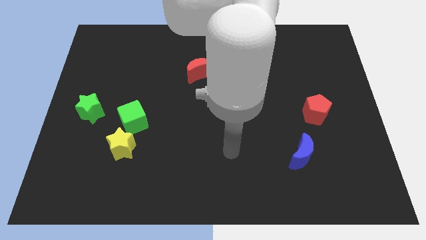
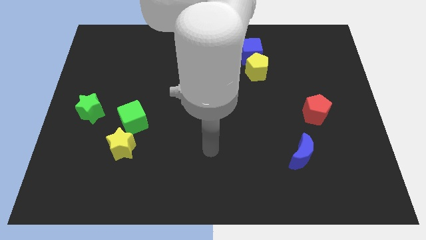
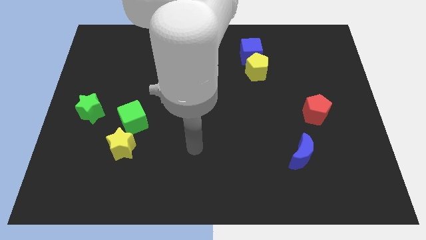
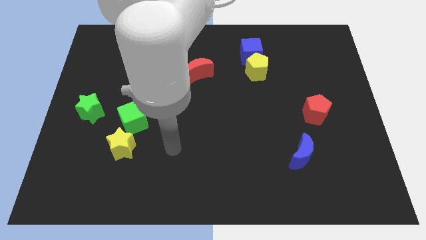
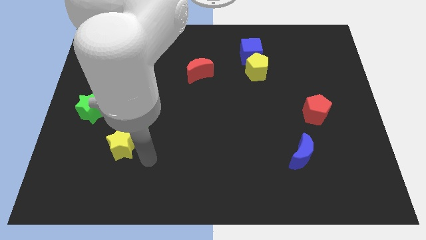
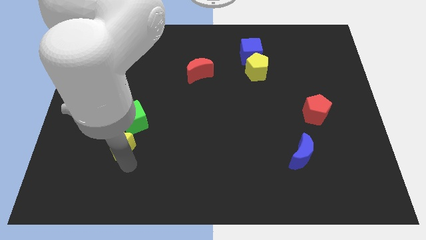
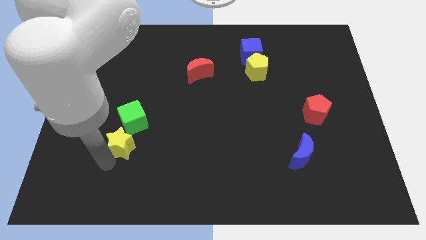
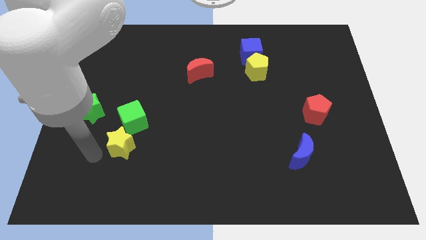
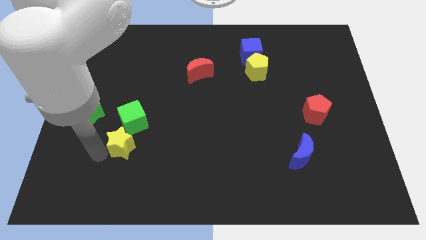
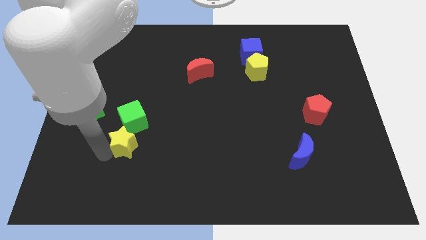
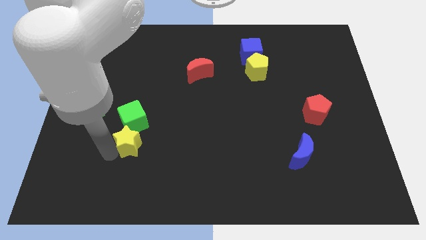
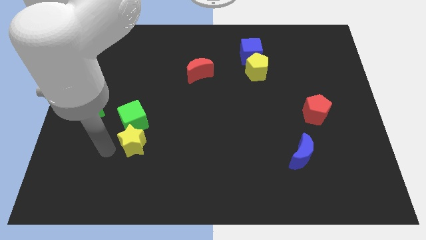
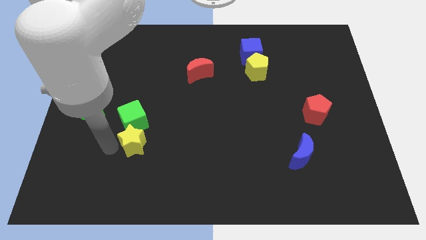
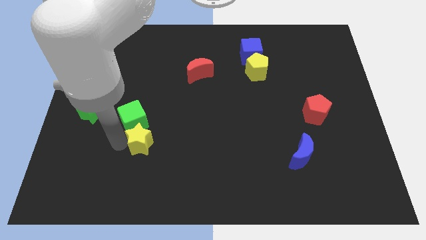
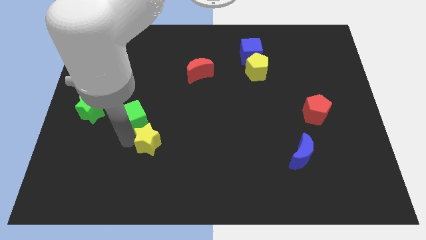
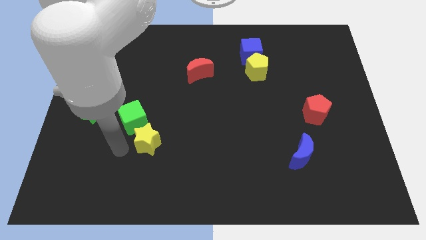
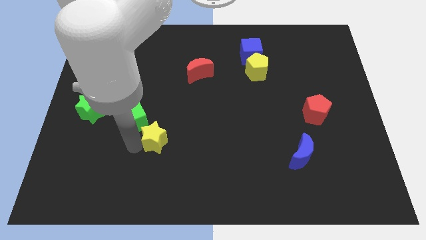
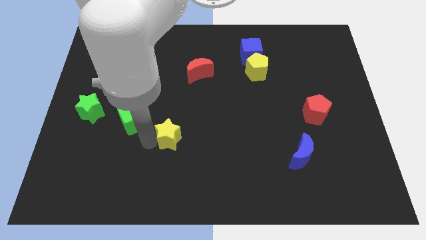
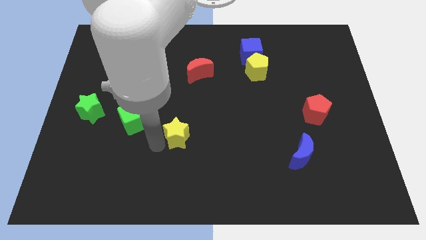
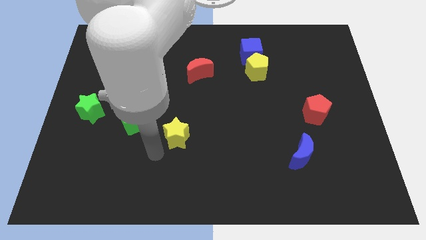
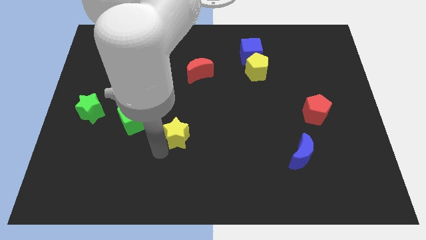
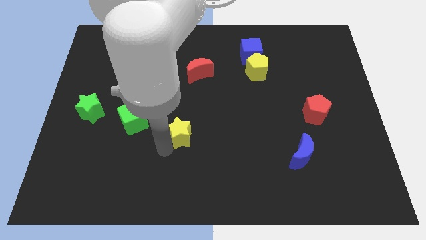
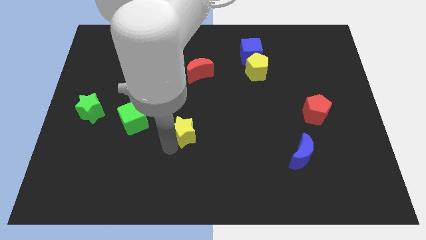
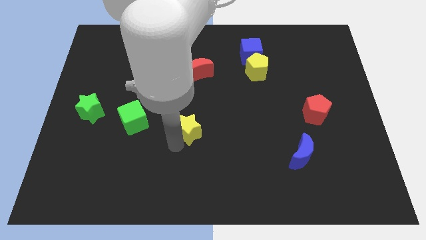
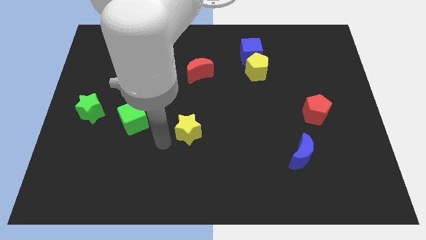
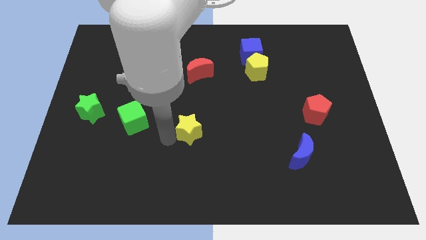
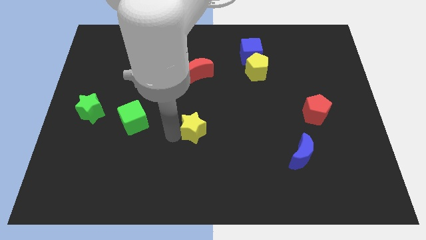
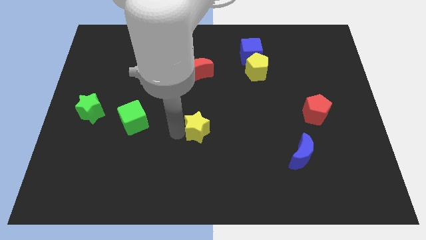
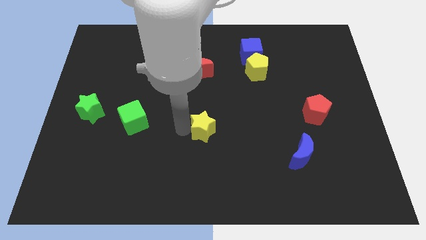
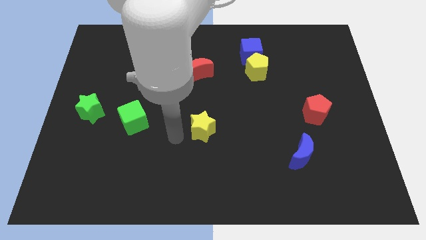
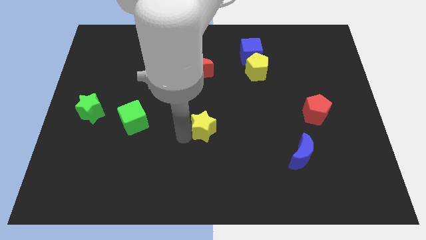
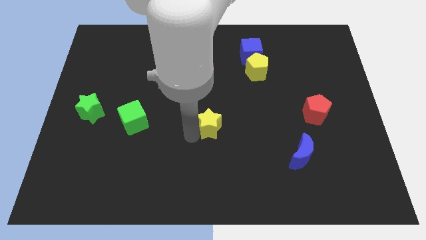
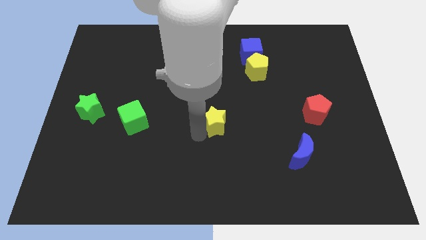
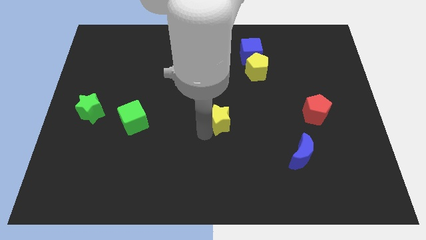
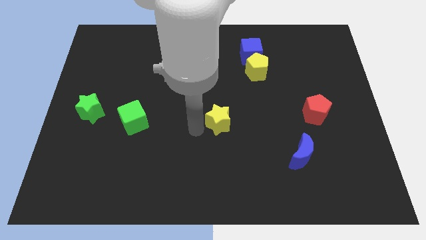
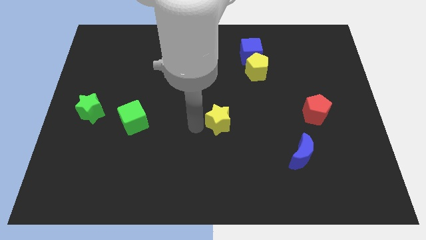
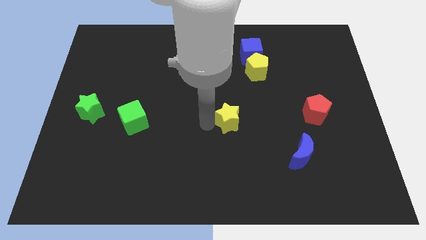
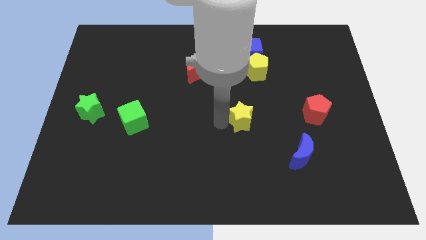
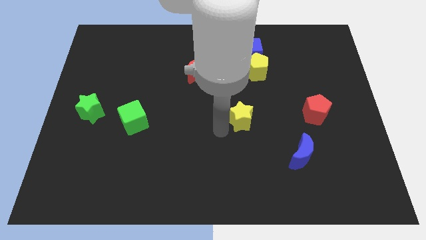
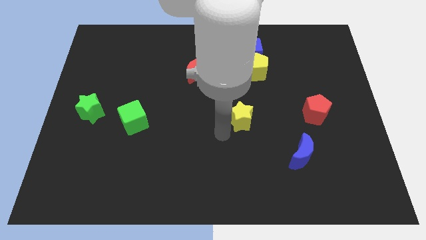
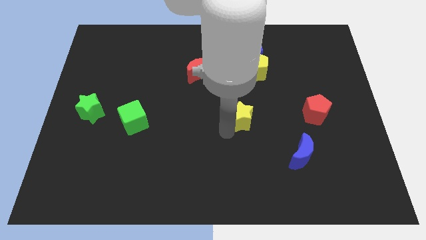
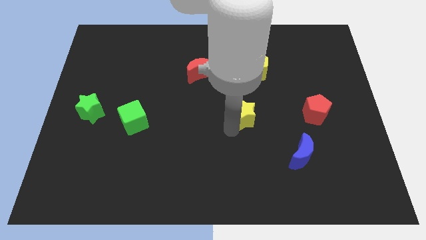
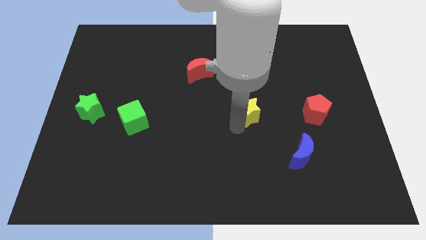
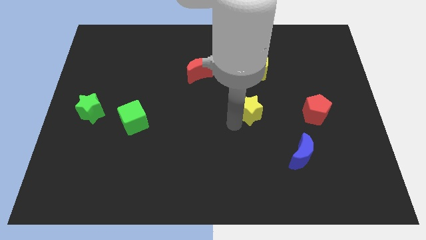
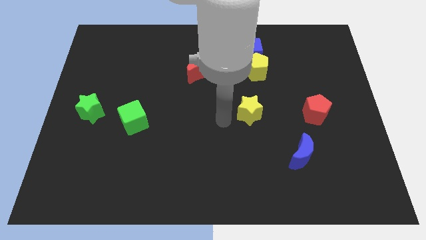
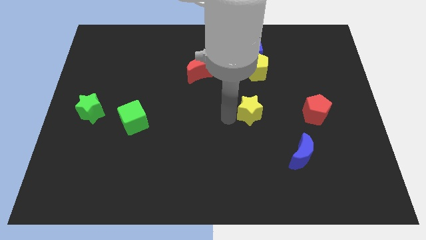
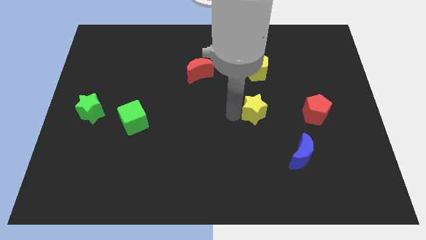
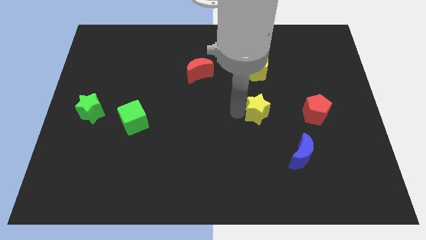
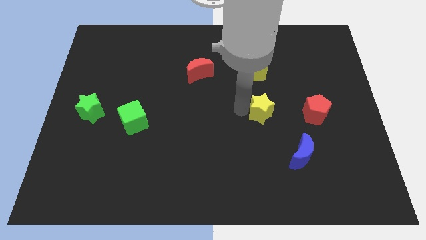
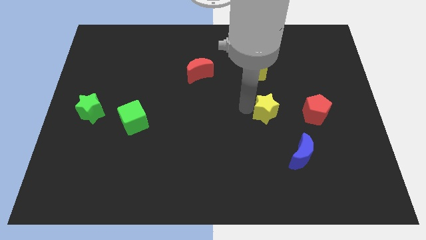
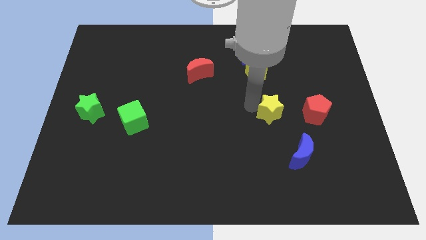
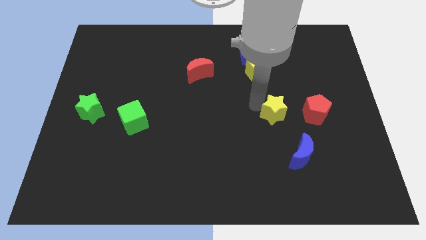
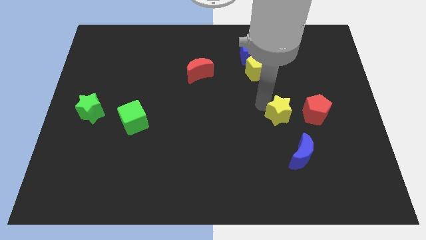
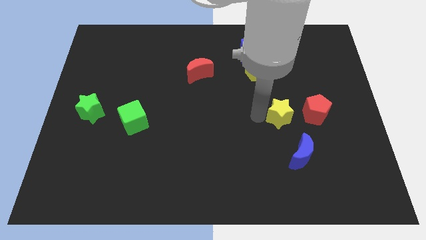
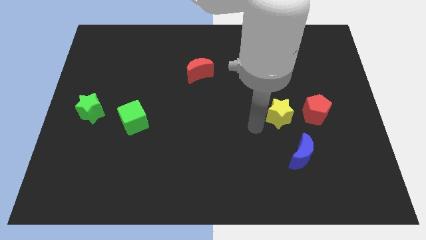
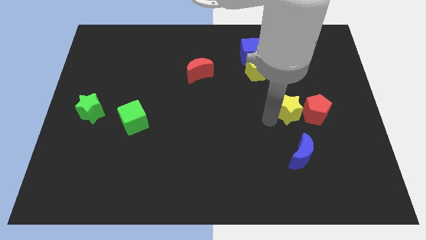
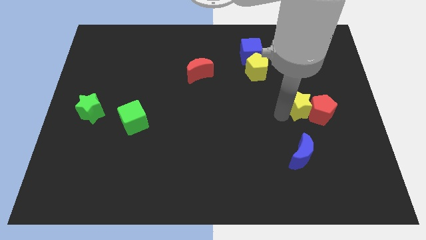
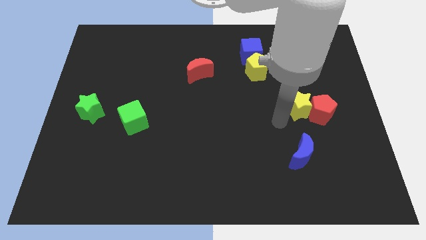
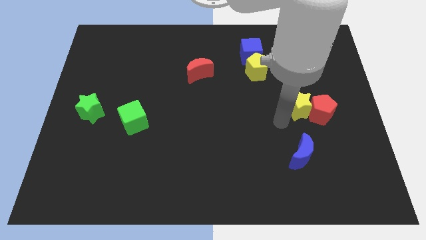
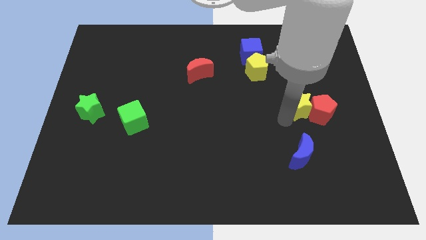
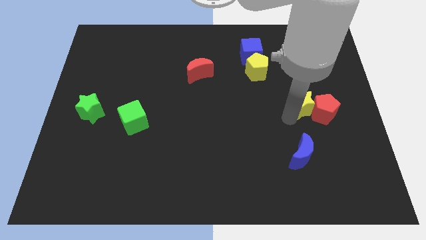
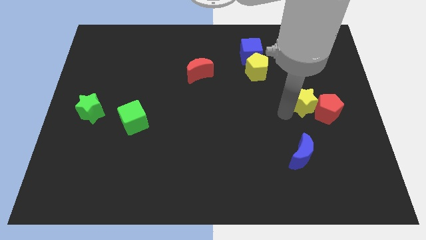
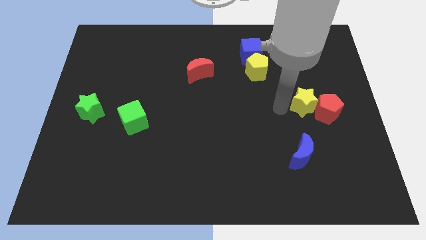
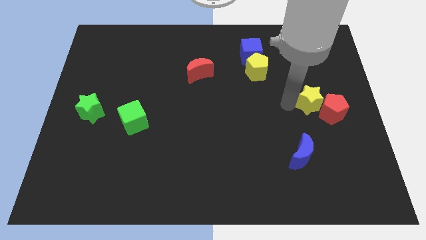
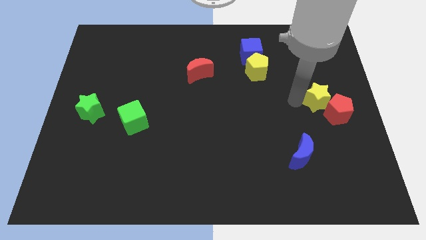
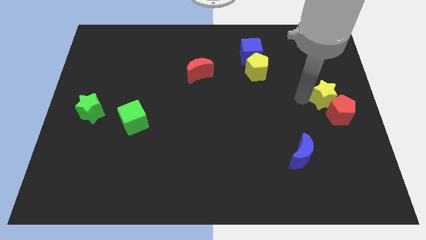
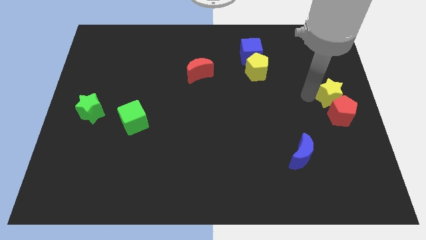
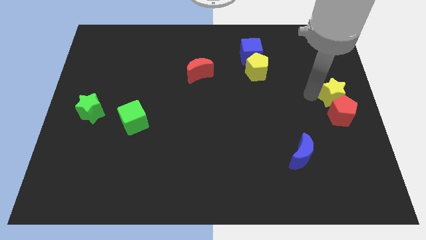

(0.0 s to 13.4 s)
slide the yellow star to the top right side of the red pentagon

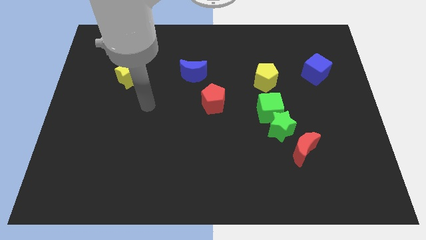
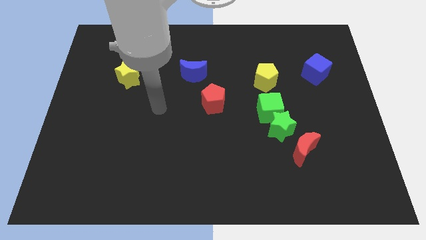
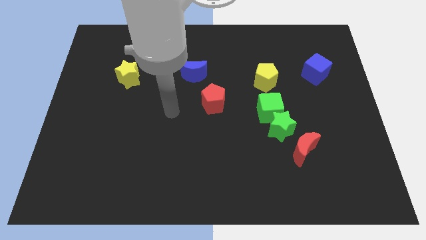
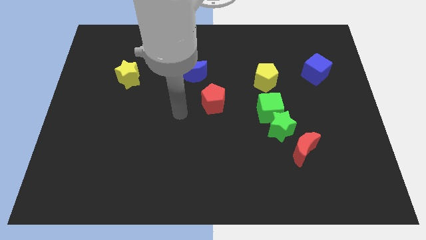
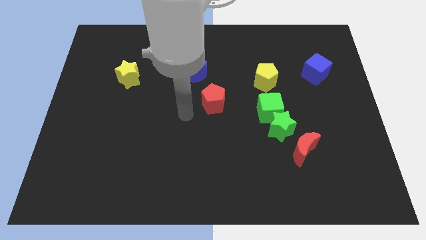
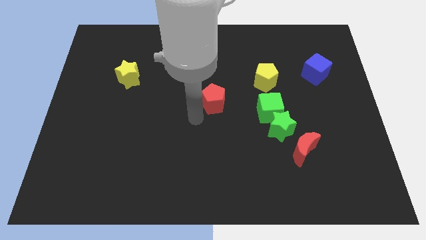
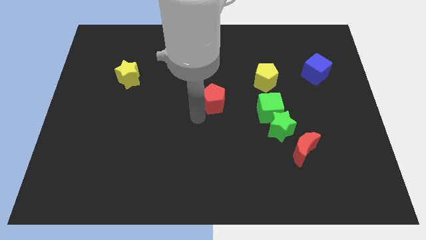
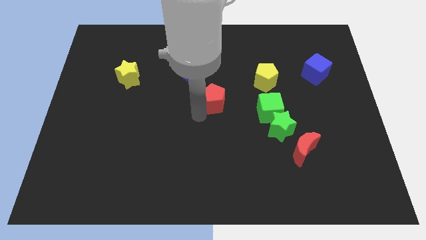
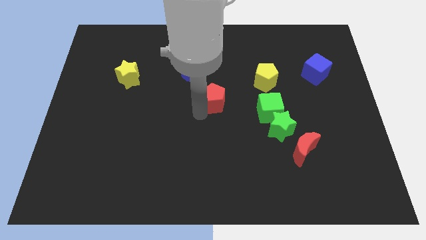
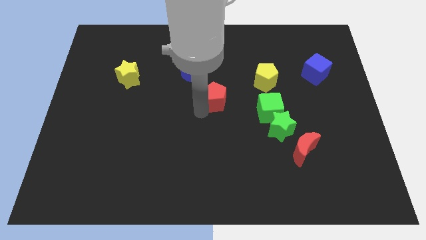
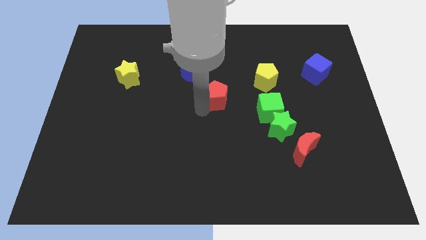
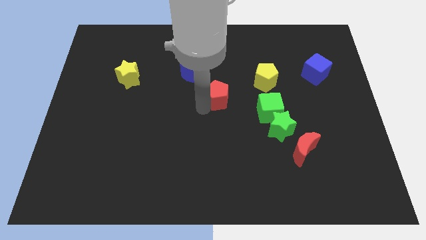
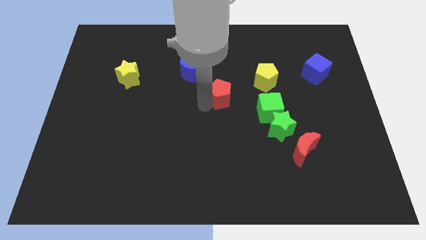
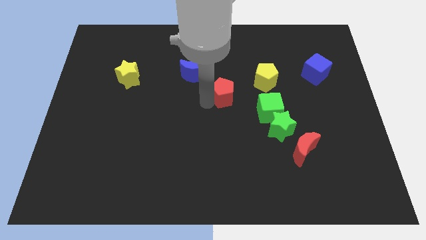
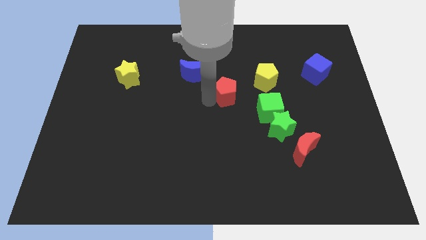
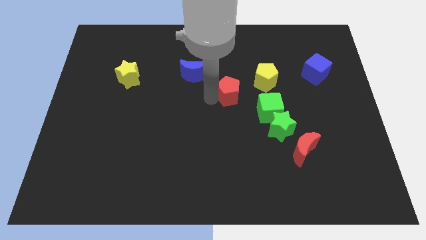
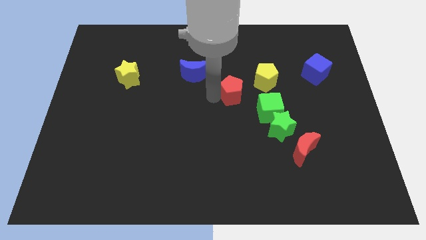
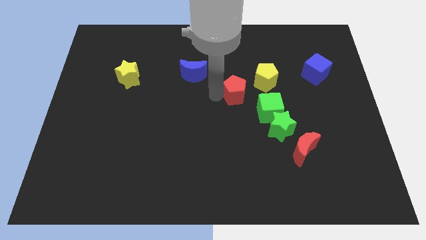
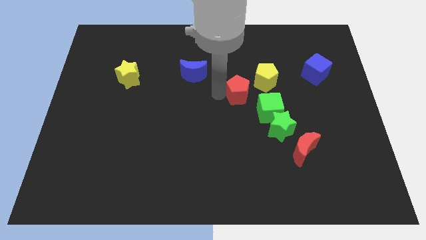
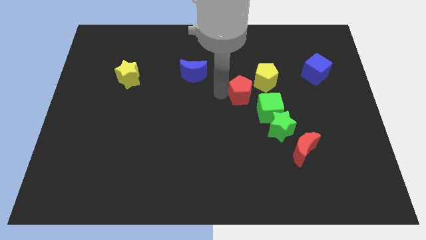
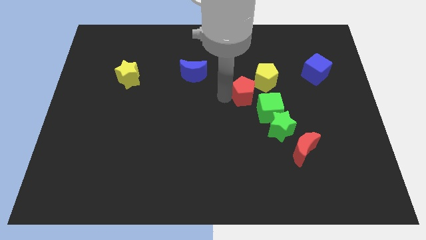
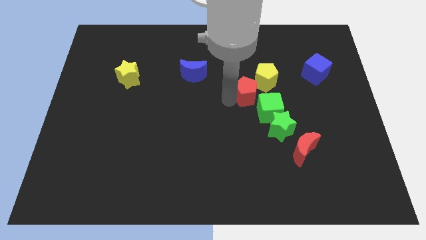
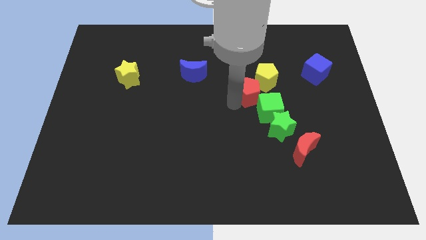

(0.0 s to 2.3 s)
slide the red pentagon to the top of the green cube
